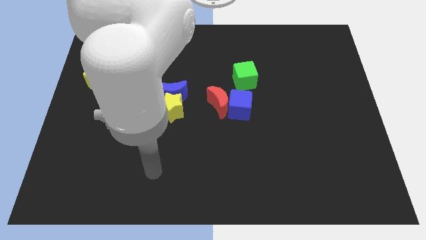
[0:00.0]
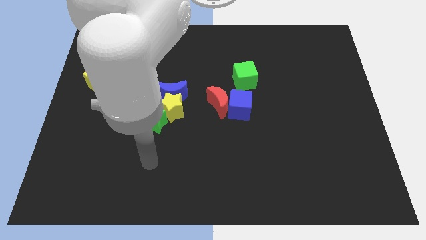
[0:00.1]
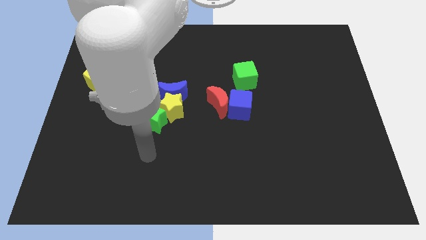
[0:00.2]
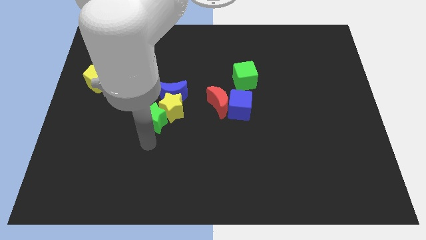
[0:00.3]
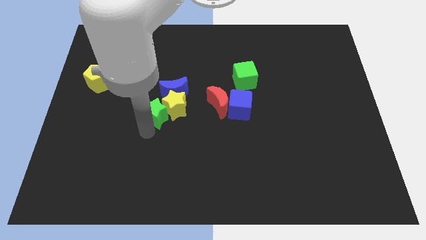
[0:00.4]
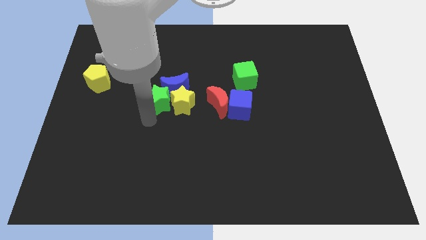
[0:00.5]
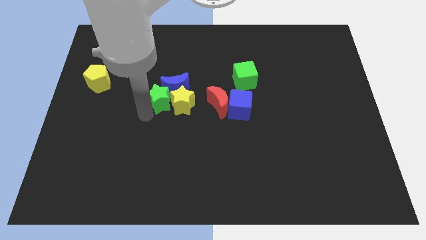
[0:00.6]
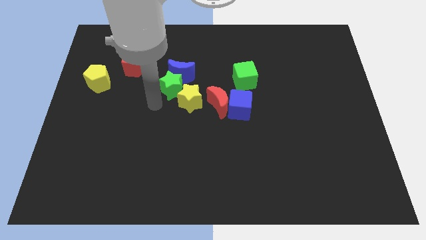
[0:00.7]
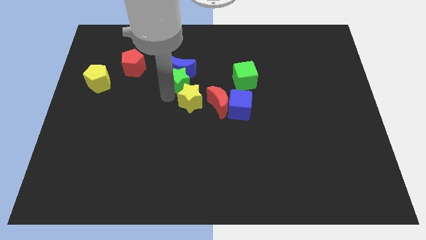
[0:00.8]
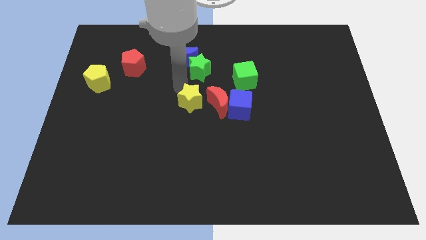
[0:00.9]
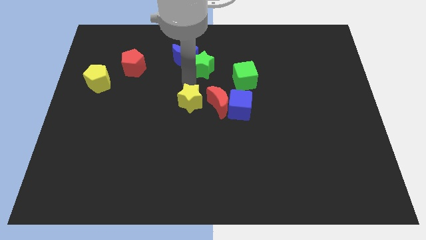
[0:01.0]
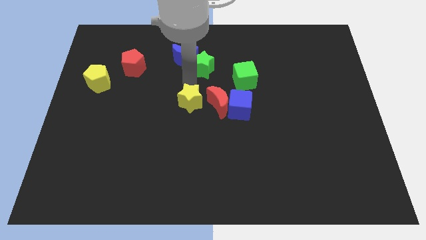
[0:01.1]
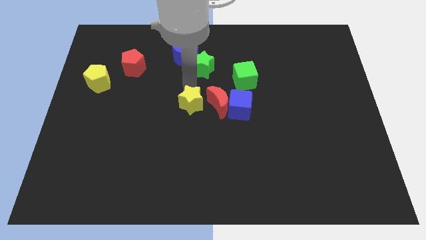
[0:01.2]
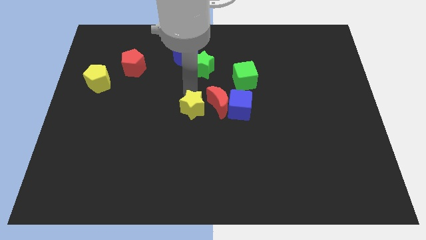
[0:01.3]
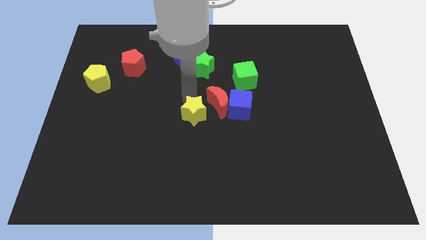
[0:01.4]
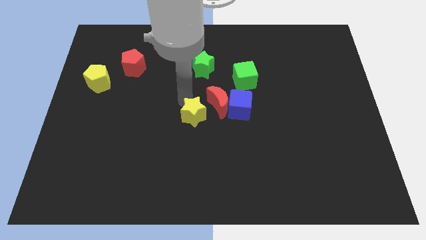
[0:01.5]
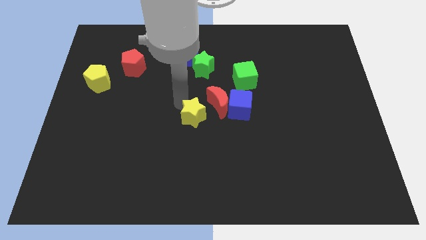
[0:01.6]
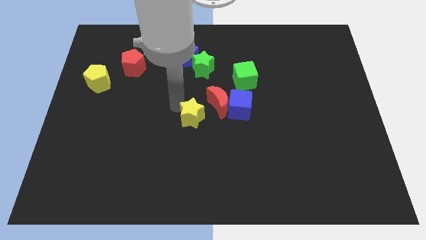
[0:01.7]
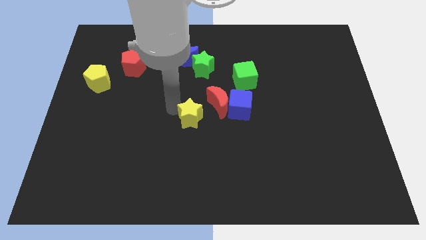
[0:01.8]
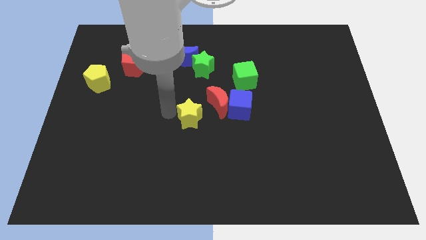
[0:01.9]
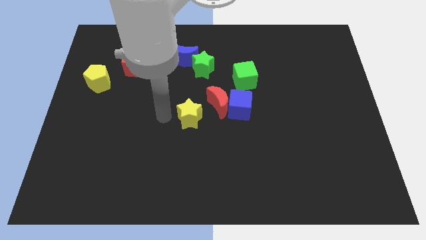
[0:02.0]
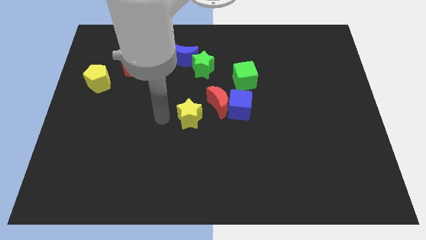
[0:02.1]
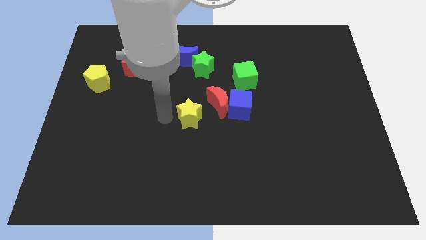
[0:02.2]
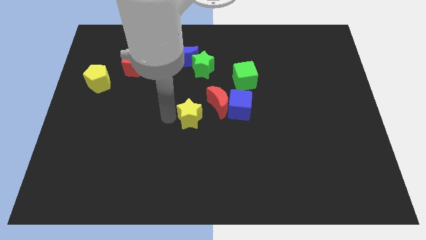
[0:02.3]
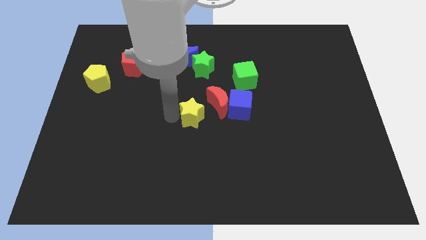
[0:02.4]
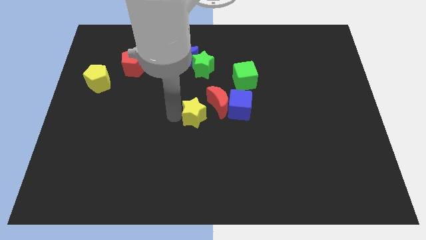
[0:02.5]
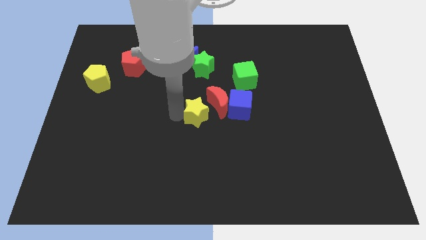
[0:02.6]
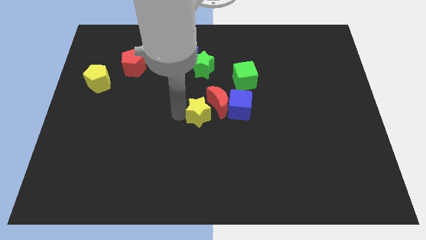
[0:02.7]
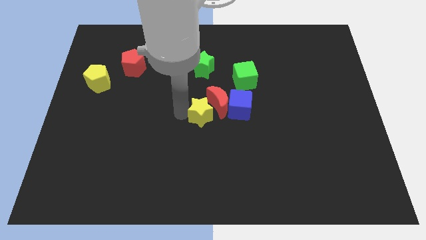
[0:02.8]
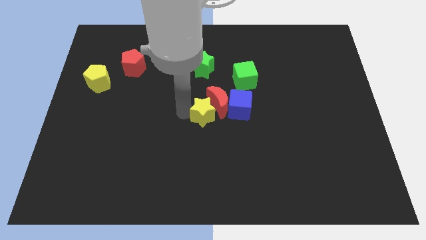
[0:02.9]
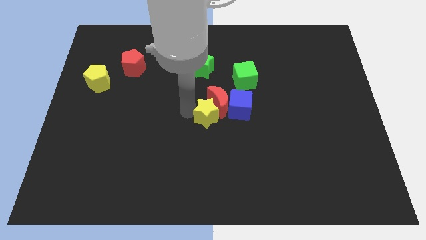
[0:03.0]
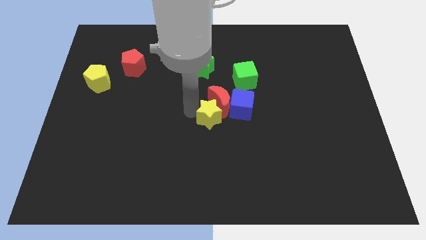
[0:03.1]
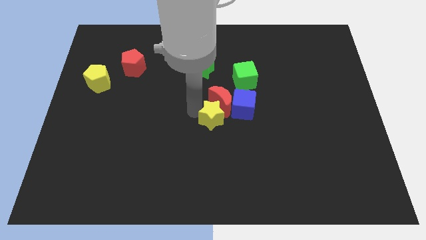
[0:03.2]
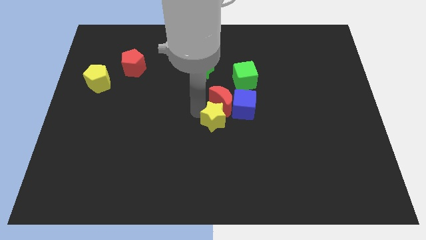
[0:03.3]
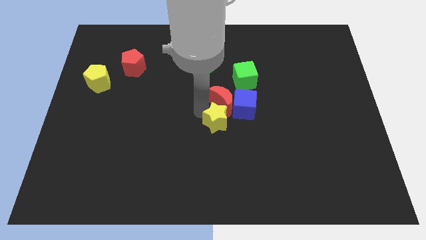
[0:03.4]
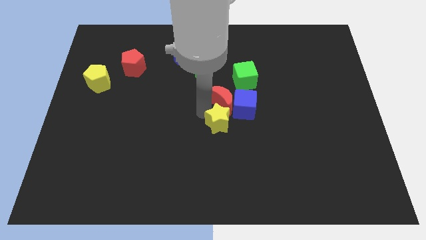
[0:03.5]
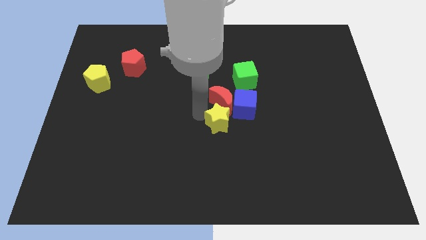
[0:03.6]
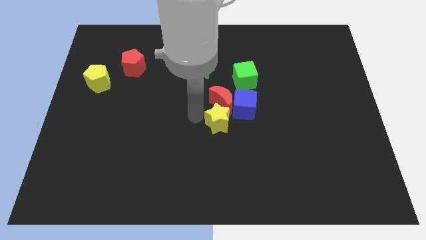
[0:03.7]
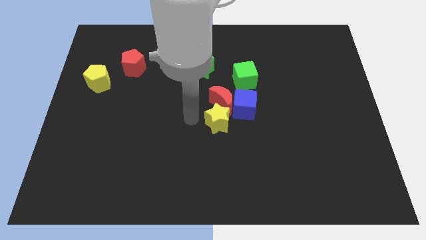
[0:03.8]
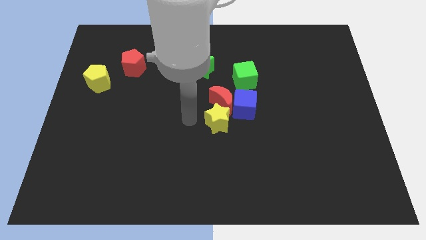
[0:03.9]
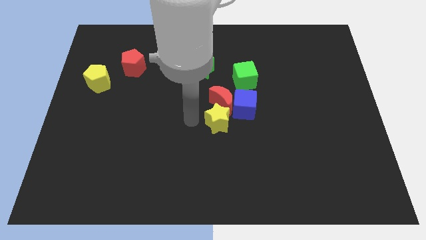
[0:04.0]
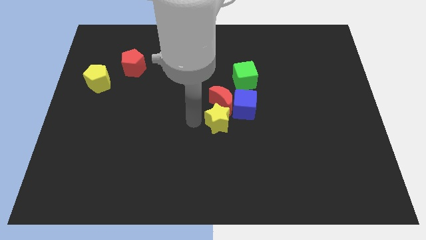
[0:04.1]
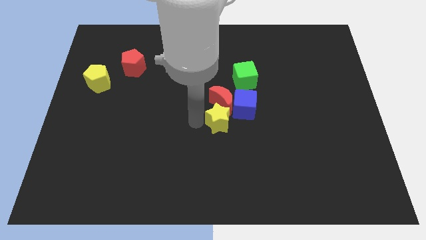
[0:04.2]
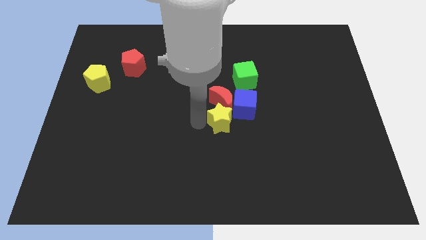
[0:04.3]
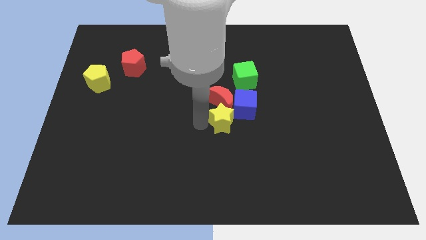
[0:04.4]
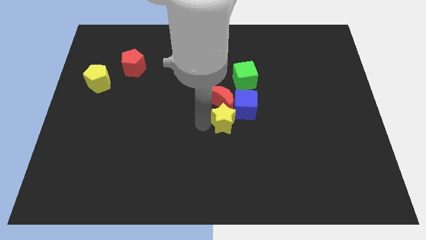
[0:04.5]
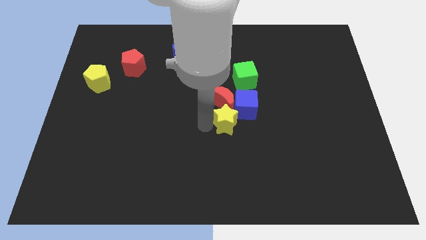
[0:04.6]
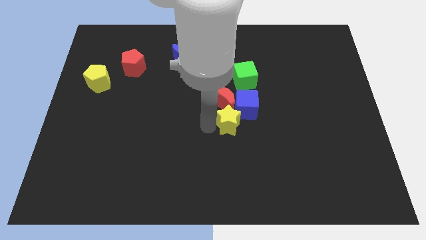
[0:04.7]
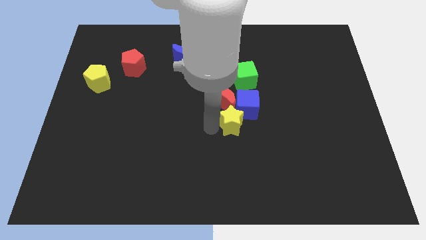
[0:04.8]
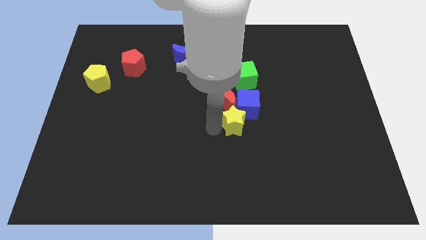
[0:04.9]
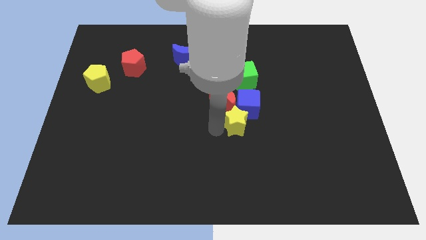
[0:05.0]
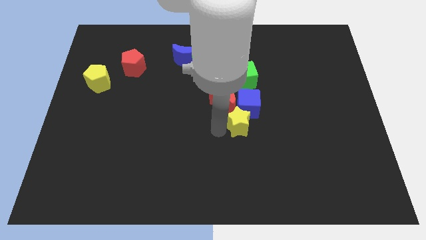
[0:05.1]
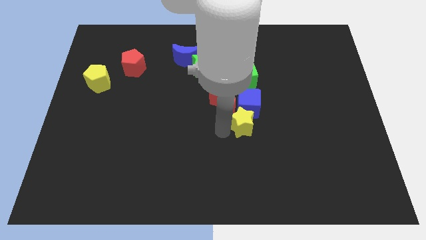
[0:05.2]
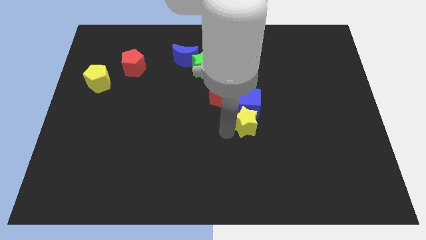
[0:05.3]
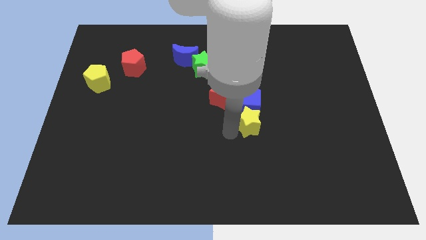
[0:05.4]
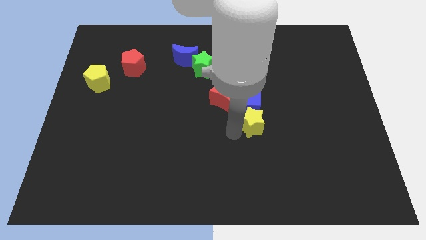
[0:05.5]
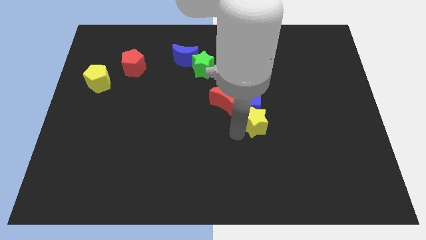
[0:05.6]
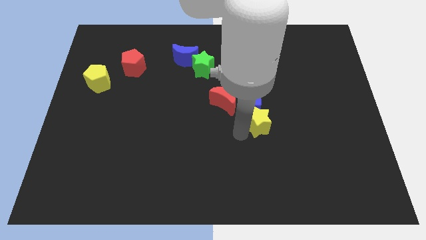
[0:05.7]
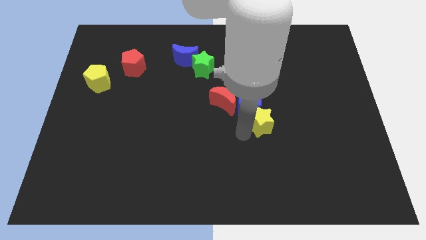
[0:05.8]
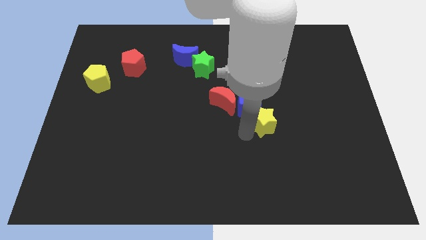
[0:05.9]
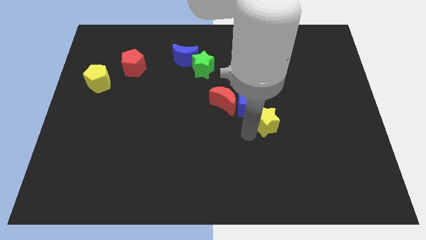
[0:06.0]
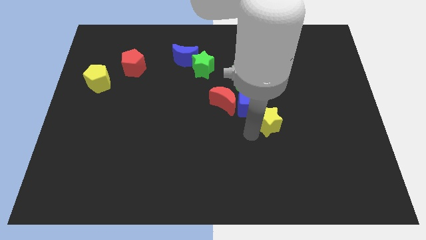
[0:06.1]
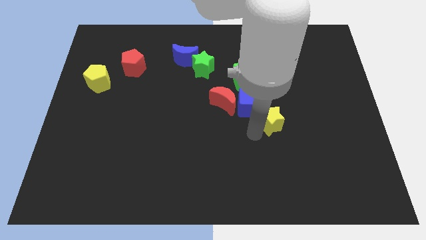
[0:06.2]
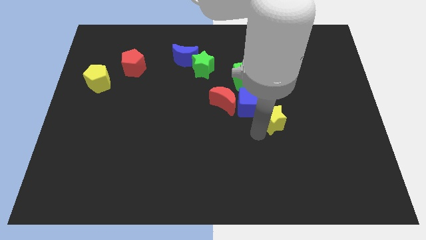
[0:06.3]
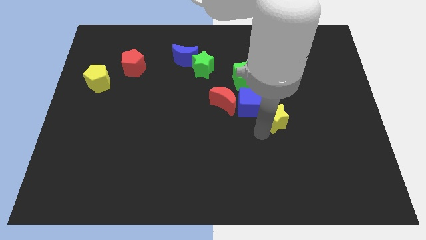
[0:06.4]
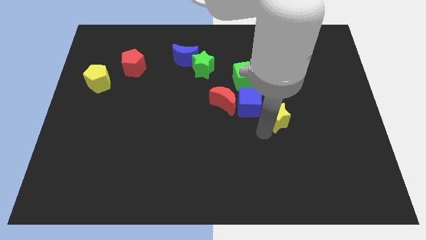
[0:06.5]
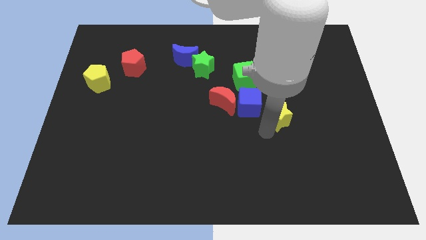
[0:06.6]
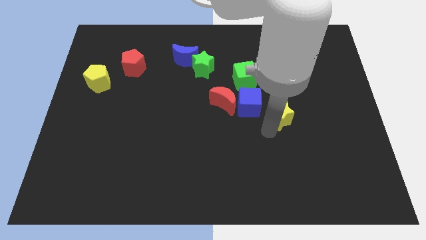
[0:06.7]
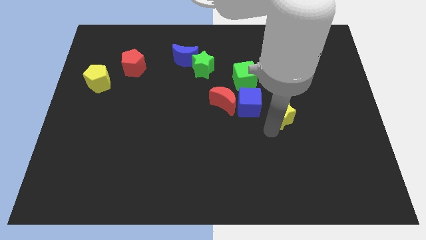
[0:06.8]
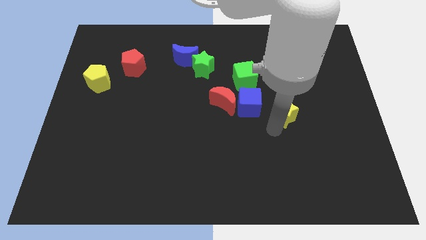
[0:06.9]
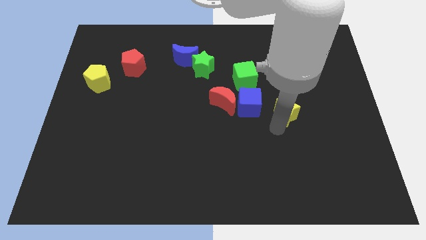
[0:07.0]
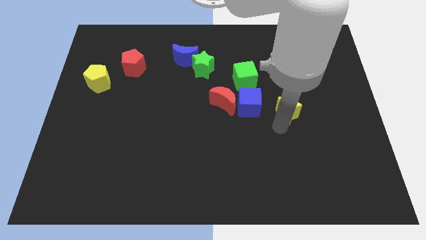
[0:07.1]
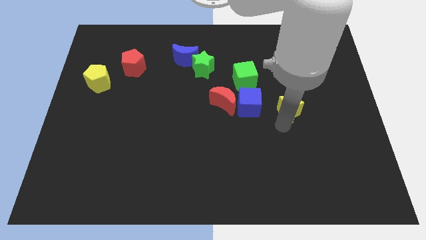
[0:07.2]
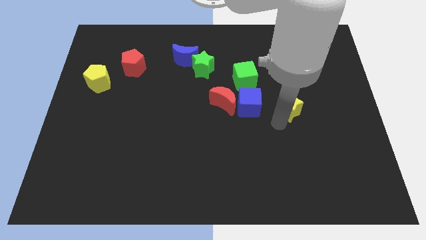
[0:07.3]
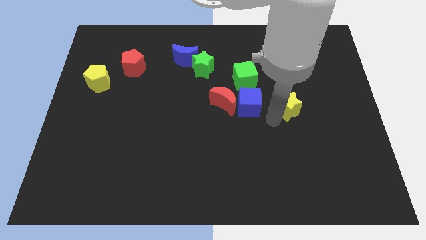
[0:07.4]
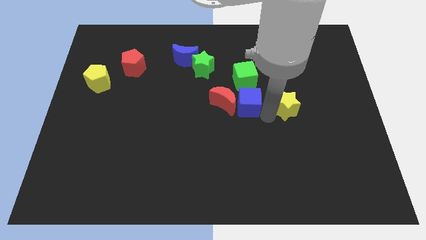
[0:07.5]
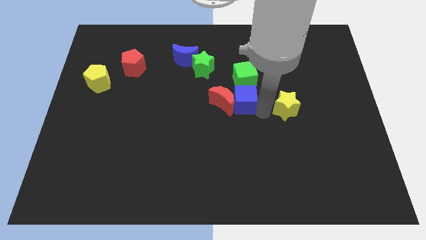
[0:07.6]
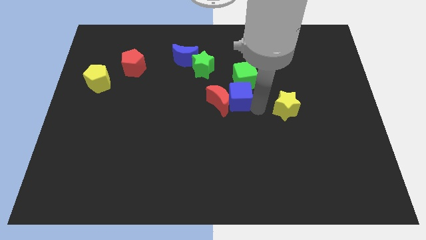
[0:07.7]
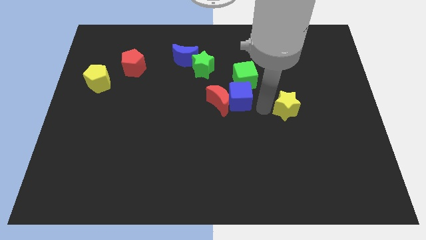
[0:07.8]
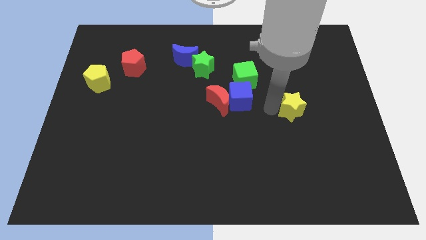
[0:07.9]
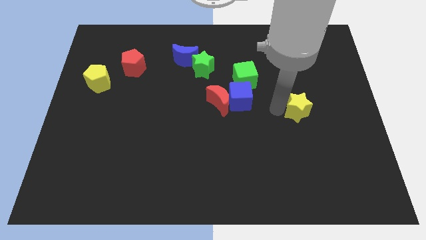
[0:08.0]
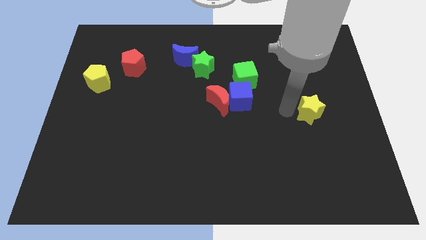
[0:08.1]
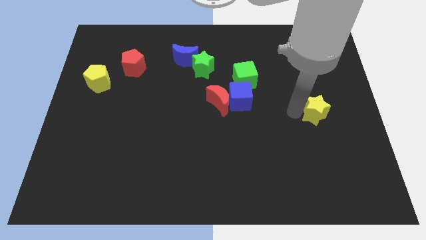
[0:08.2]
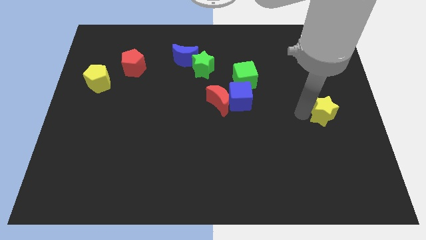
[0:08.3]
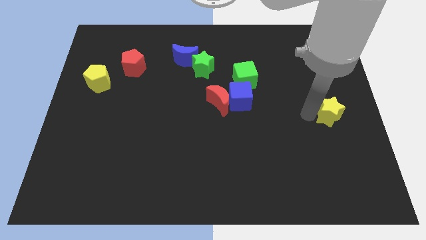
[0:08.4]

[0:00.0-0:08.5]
slide the yellow star to the right side
